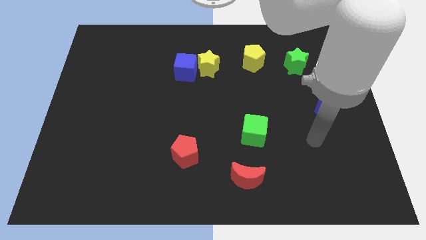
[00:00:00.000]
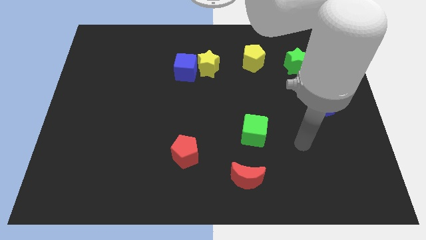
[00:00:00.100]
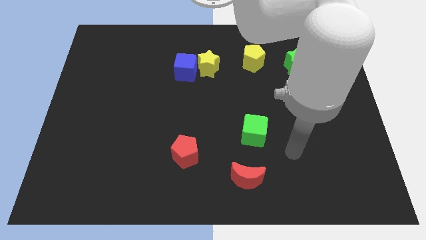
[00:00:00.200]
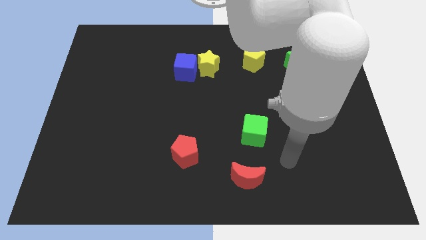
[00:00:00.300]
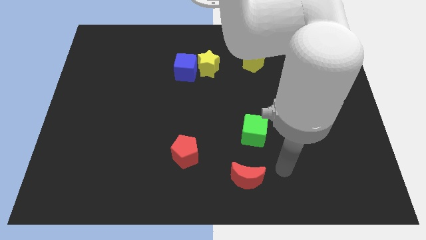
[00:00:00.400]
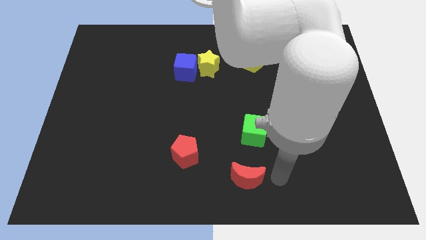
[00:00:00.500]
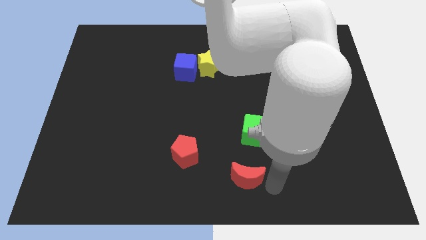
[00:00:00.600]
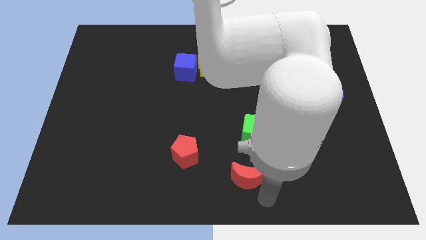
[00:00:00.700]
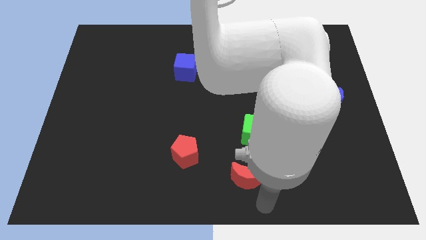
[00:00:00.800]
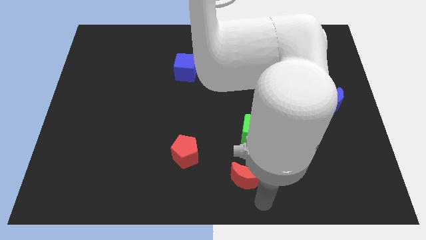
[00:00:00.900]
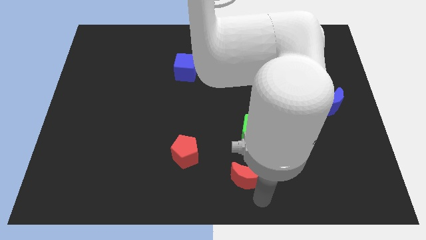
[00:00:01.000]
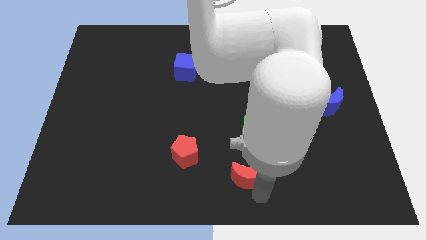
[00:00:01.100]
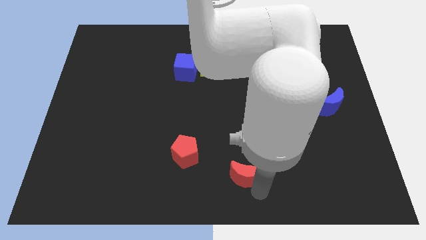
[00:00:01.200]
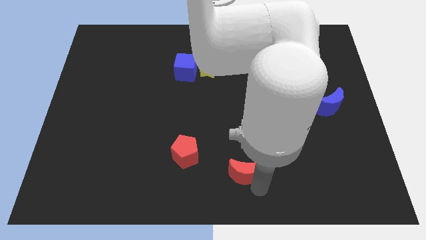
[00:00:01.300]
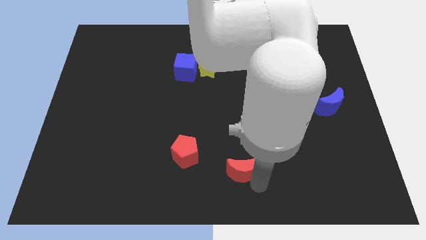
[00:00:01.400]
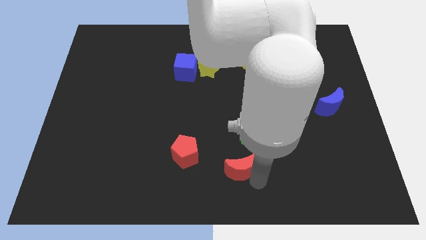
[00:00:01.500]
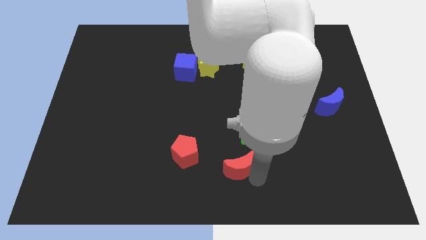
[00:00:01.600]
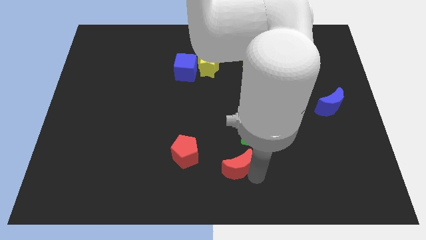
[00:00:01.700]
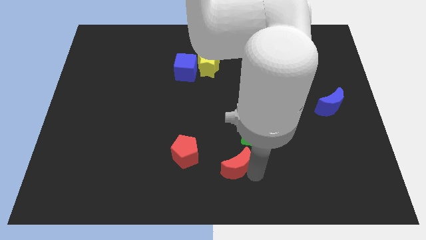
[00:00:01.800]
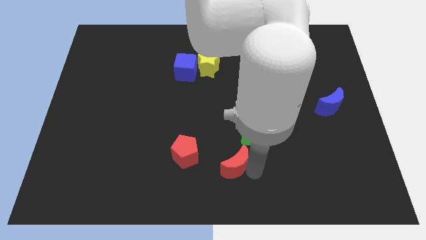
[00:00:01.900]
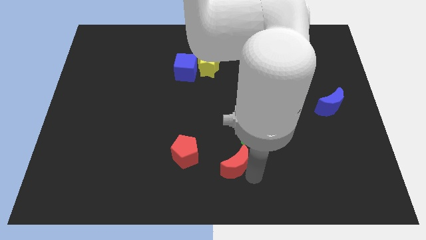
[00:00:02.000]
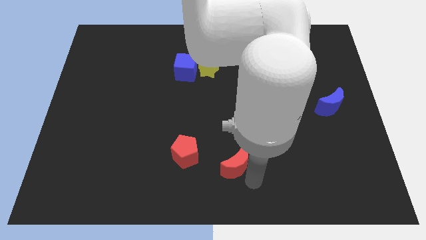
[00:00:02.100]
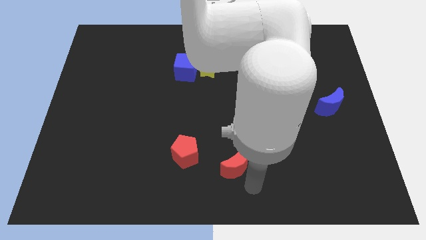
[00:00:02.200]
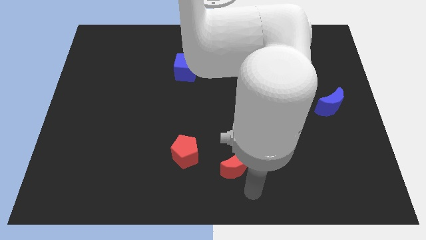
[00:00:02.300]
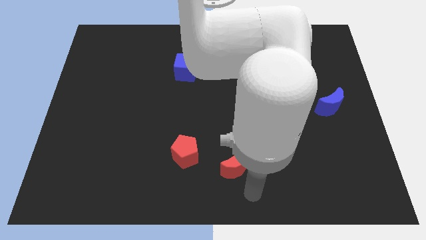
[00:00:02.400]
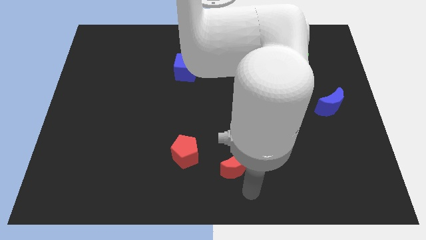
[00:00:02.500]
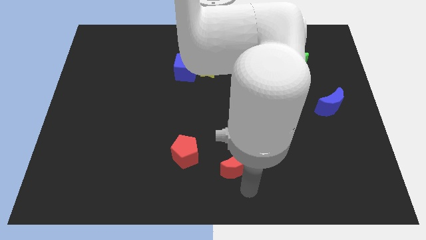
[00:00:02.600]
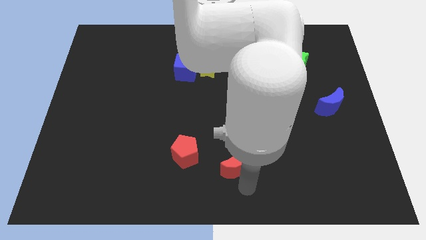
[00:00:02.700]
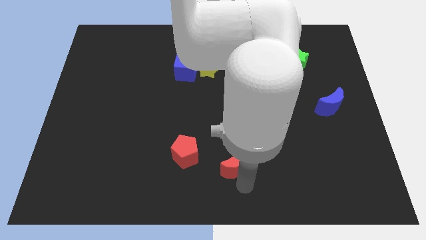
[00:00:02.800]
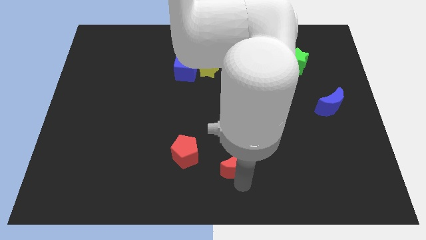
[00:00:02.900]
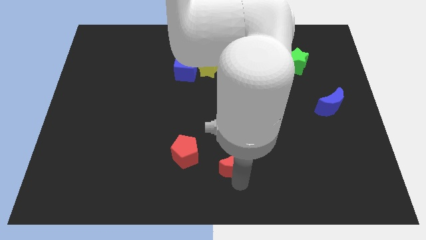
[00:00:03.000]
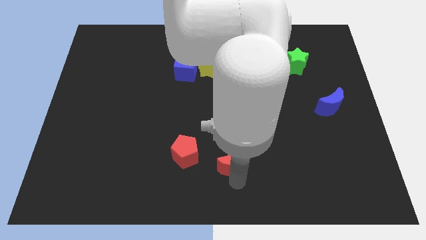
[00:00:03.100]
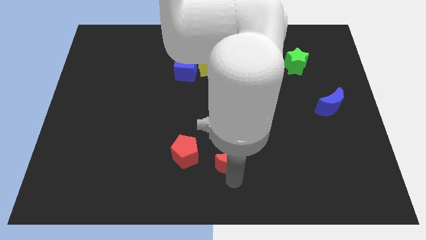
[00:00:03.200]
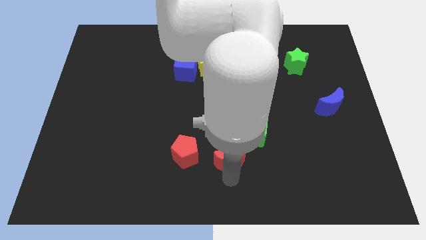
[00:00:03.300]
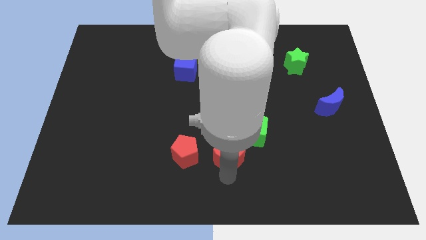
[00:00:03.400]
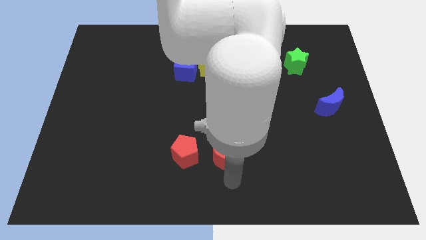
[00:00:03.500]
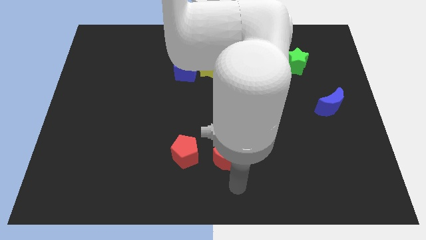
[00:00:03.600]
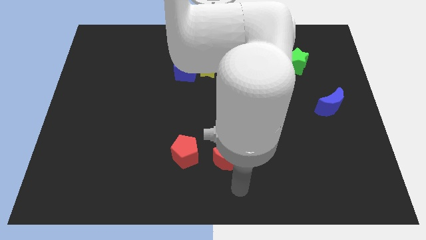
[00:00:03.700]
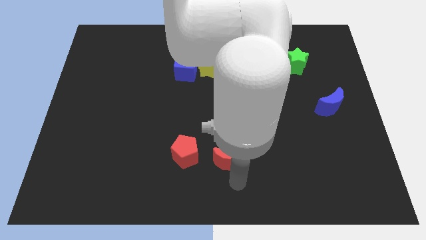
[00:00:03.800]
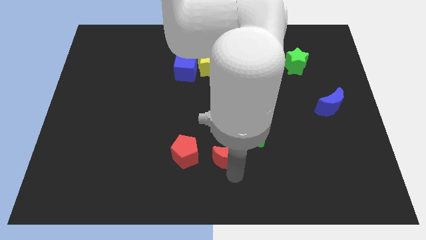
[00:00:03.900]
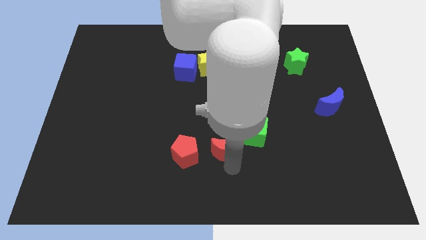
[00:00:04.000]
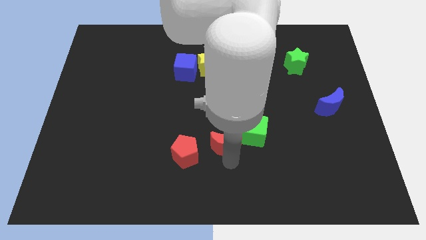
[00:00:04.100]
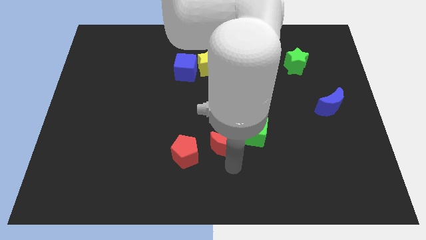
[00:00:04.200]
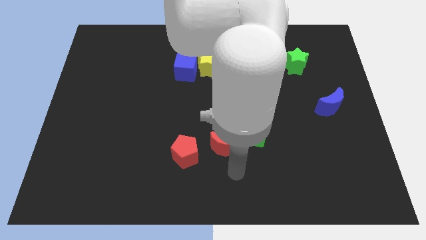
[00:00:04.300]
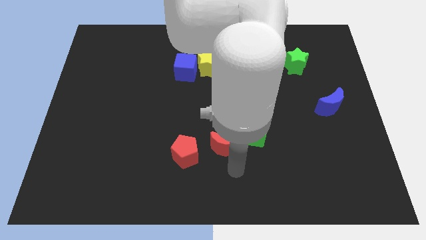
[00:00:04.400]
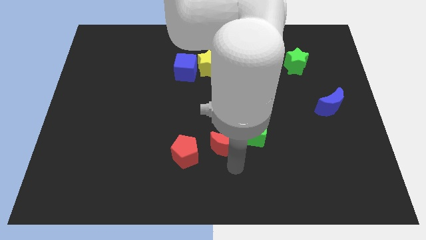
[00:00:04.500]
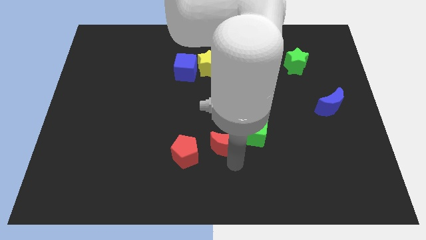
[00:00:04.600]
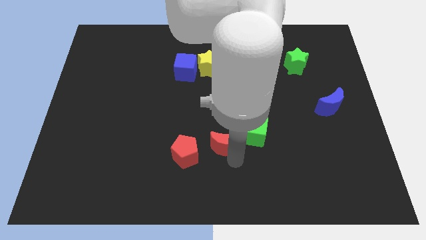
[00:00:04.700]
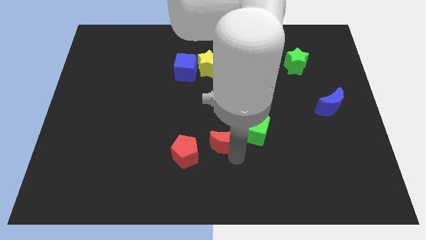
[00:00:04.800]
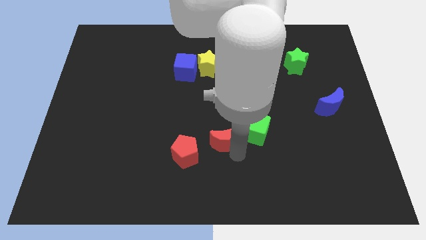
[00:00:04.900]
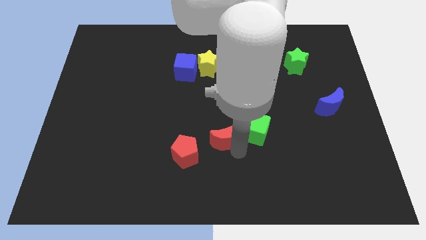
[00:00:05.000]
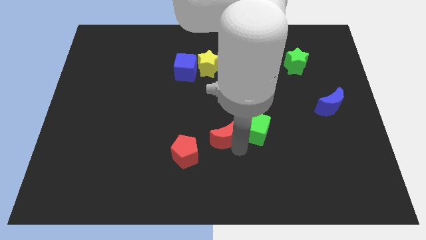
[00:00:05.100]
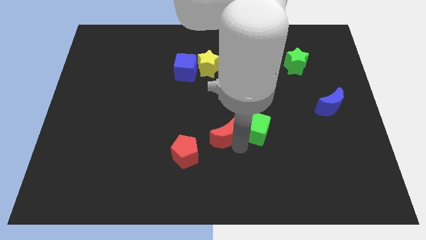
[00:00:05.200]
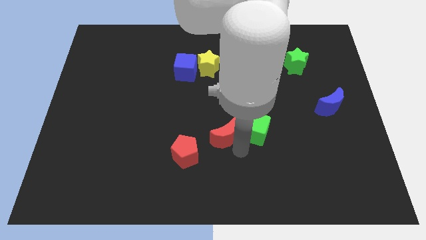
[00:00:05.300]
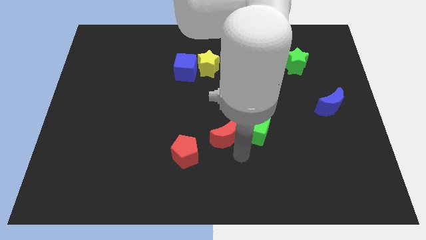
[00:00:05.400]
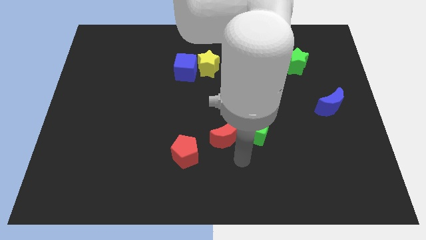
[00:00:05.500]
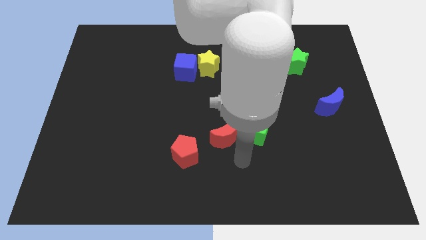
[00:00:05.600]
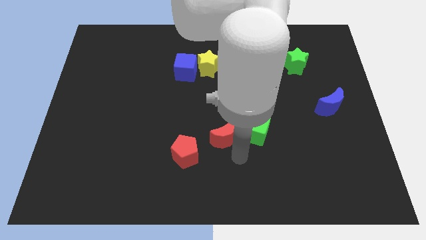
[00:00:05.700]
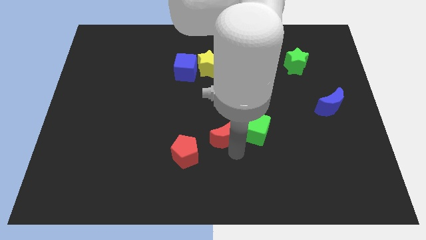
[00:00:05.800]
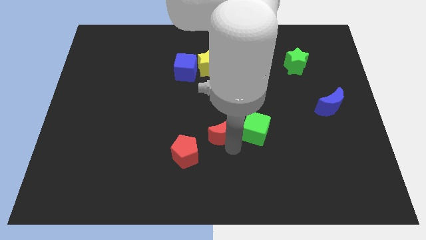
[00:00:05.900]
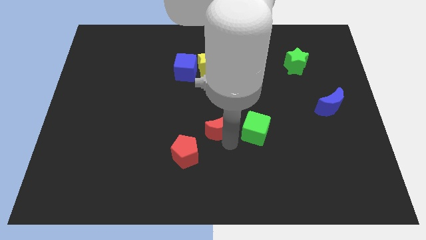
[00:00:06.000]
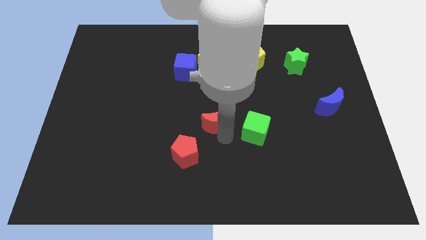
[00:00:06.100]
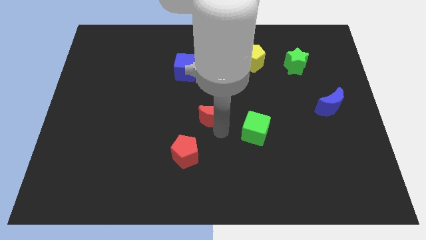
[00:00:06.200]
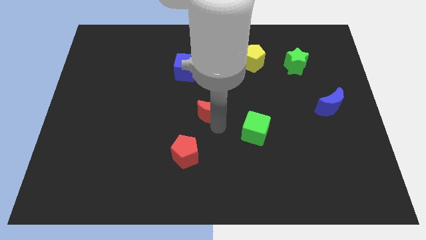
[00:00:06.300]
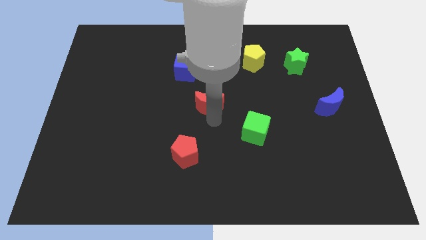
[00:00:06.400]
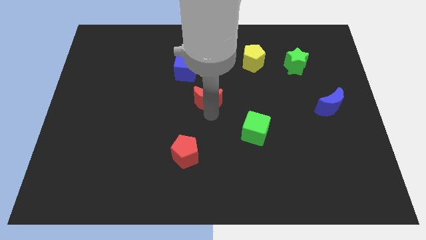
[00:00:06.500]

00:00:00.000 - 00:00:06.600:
push the red moon diagonally down and to the right of the blue cube

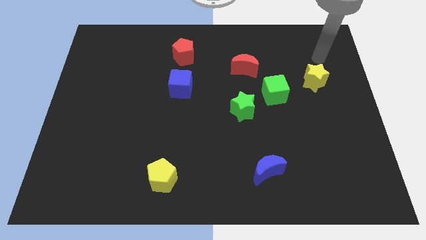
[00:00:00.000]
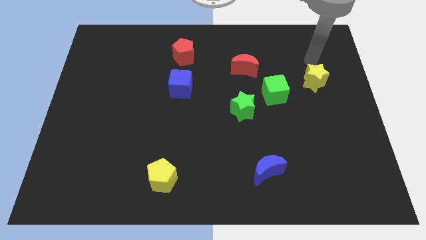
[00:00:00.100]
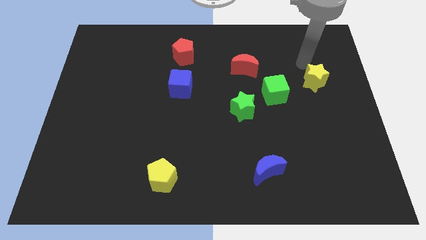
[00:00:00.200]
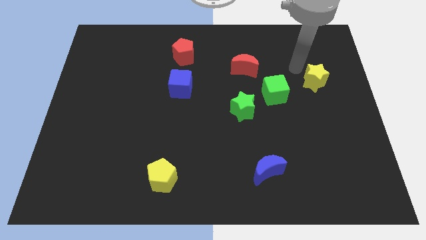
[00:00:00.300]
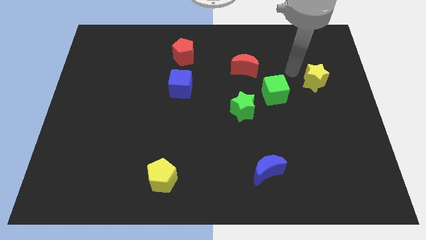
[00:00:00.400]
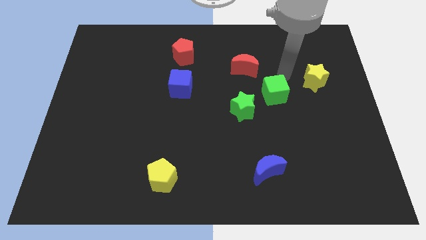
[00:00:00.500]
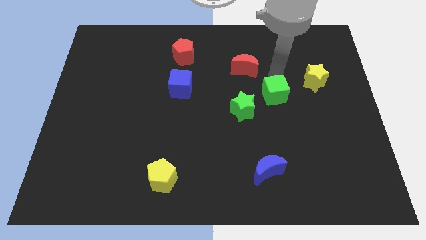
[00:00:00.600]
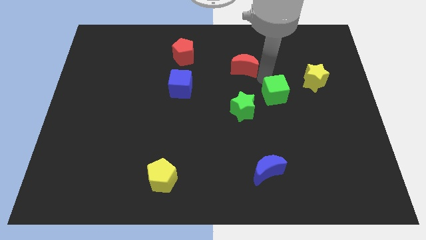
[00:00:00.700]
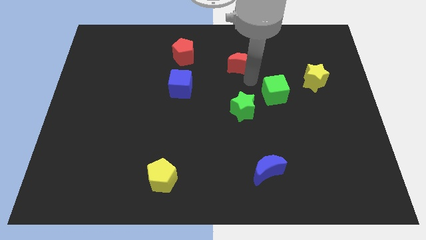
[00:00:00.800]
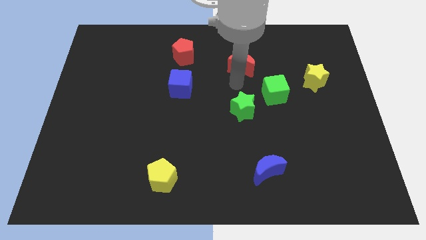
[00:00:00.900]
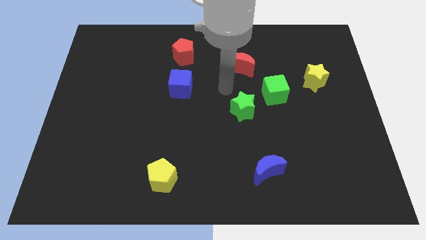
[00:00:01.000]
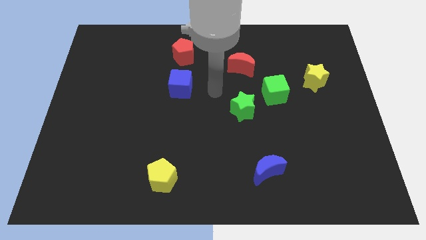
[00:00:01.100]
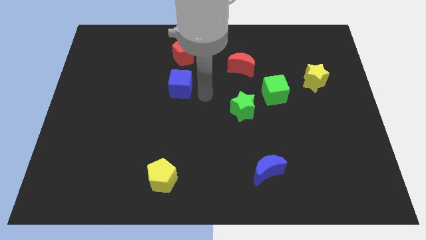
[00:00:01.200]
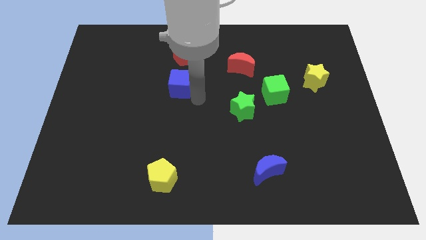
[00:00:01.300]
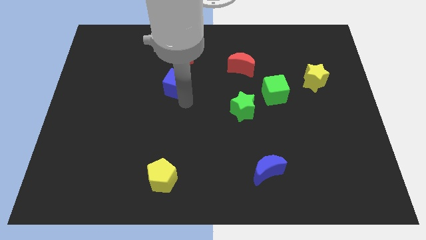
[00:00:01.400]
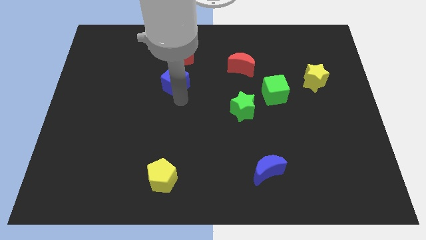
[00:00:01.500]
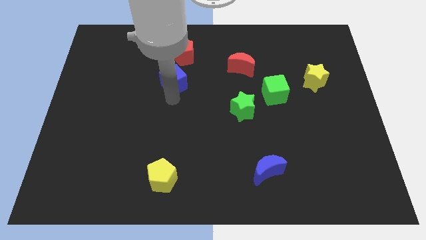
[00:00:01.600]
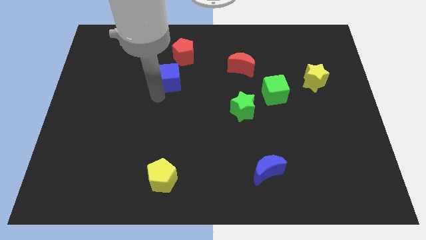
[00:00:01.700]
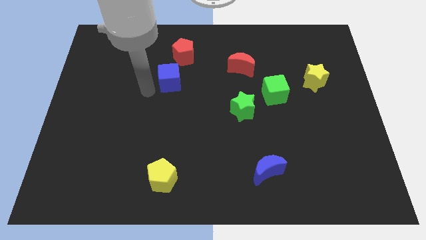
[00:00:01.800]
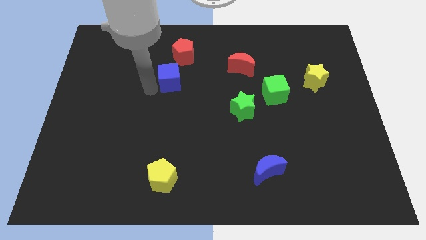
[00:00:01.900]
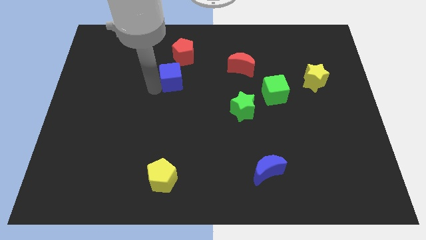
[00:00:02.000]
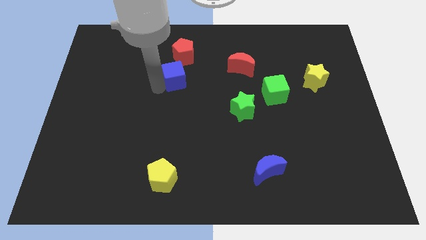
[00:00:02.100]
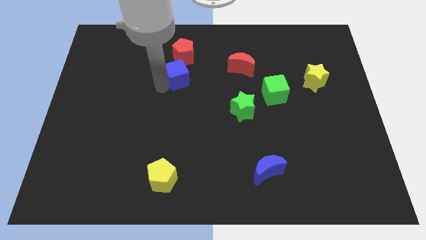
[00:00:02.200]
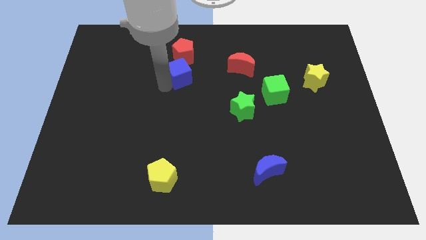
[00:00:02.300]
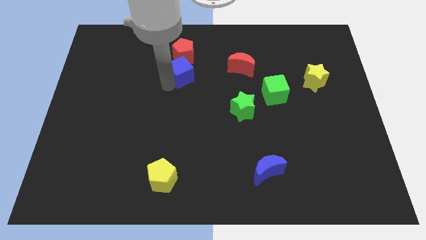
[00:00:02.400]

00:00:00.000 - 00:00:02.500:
slide the blue cube left of the red moon
